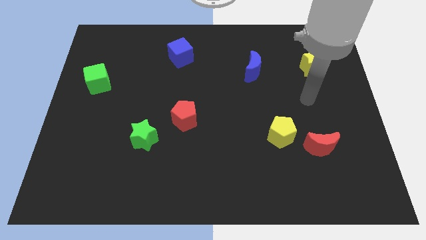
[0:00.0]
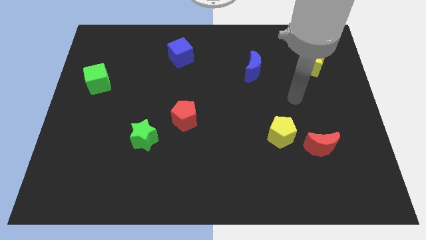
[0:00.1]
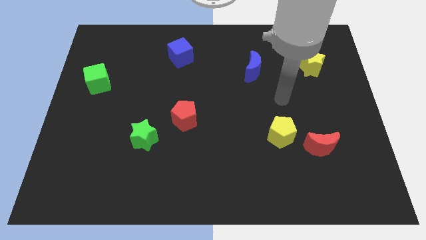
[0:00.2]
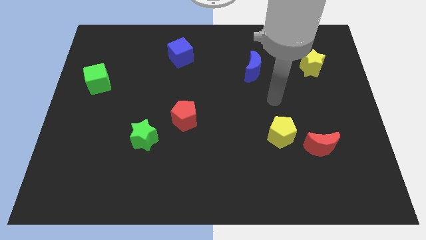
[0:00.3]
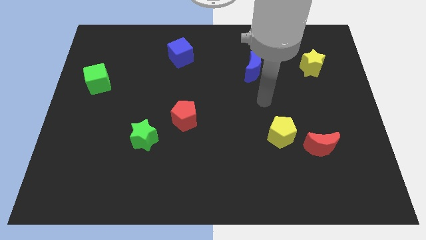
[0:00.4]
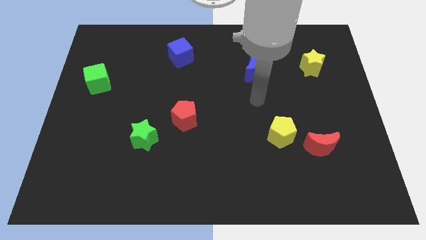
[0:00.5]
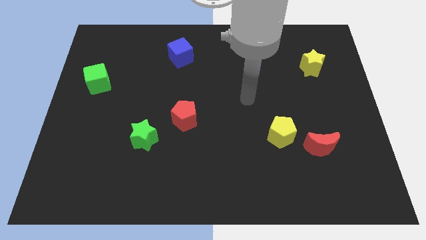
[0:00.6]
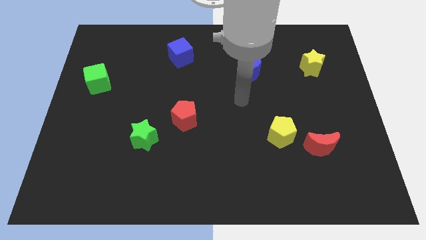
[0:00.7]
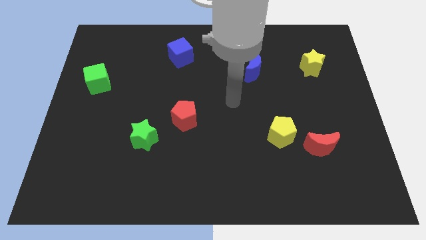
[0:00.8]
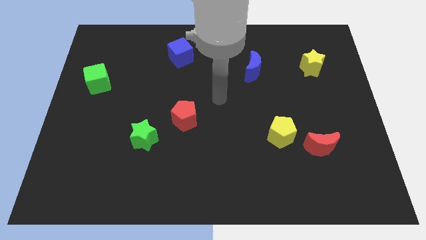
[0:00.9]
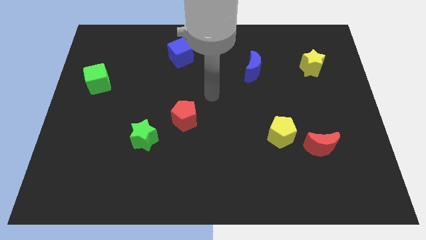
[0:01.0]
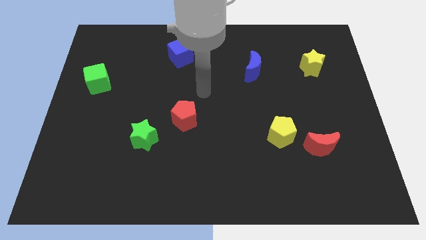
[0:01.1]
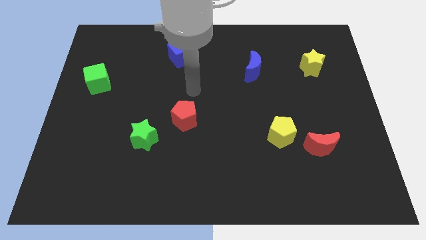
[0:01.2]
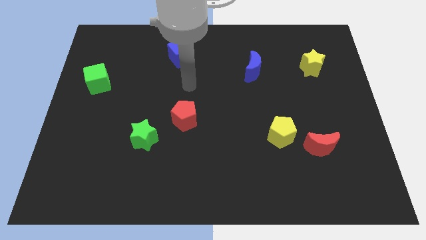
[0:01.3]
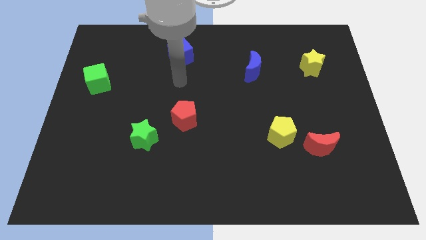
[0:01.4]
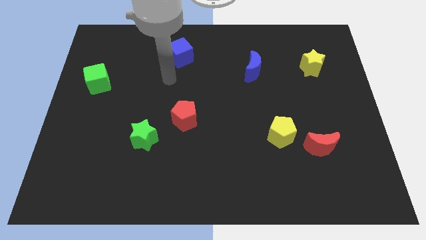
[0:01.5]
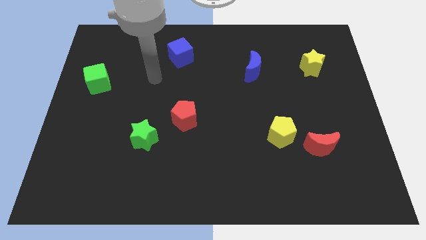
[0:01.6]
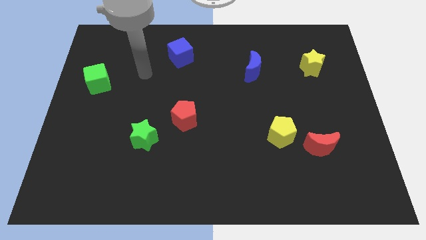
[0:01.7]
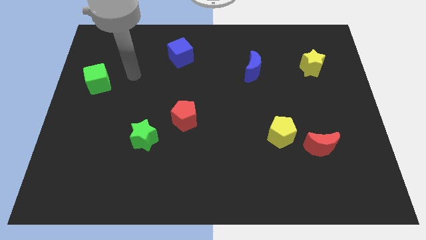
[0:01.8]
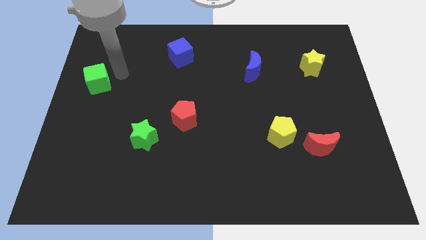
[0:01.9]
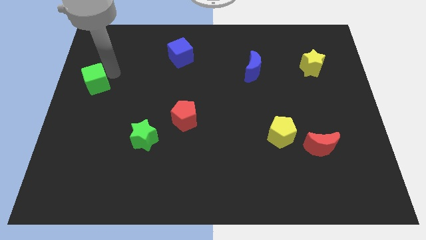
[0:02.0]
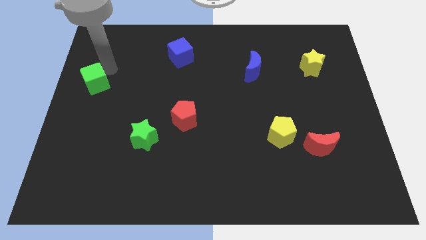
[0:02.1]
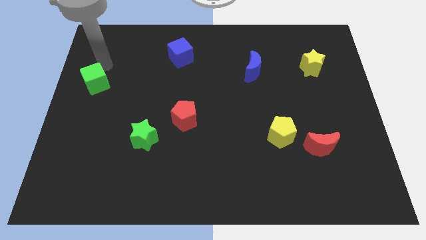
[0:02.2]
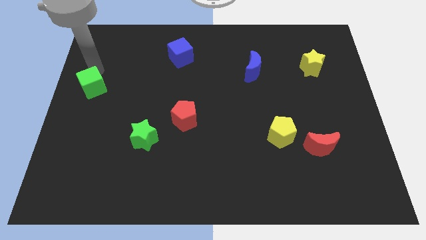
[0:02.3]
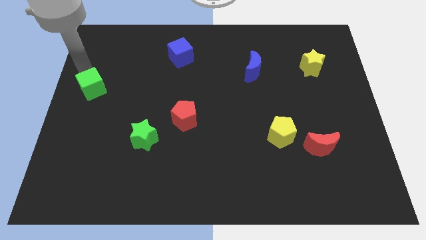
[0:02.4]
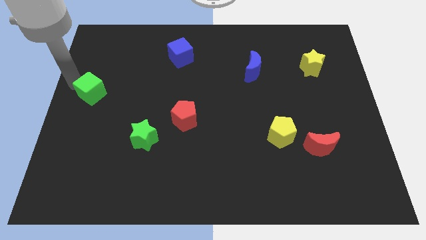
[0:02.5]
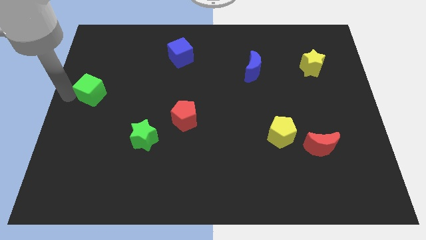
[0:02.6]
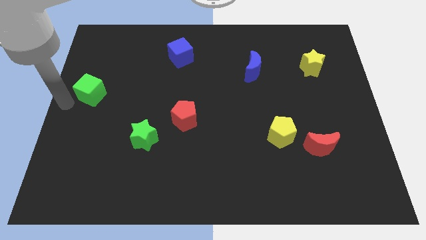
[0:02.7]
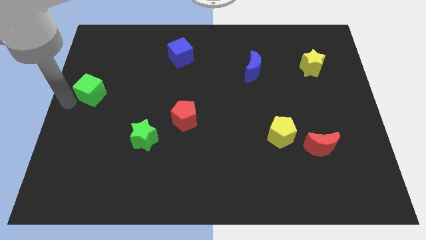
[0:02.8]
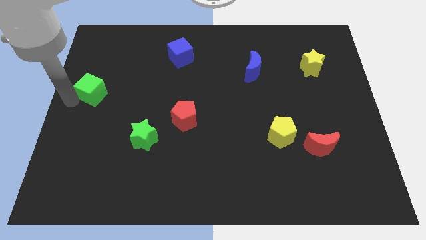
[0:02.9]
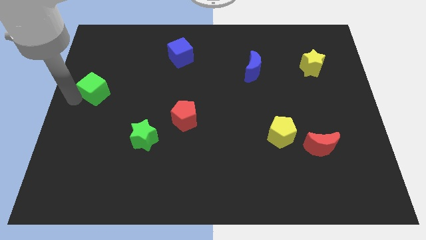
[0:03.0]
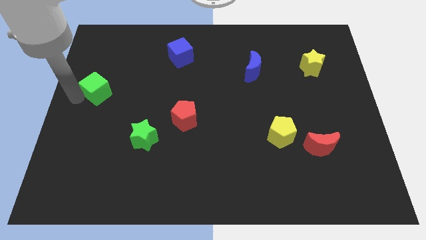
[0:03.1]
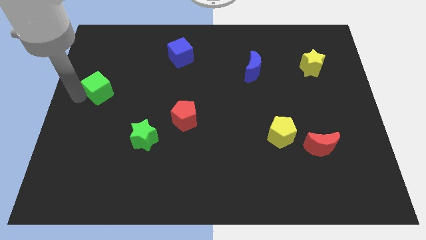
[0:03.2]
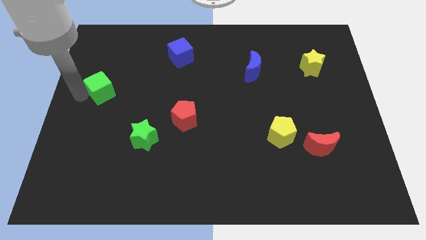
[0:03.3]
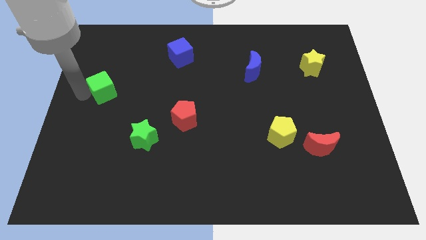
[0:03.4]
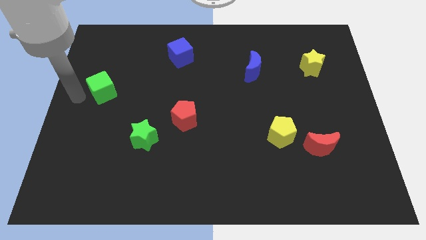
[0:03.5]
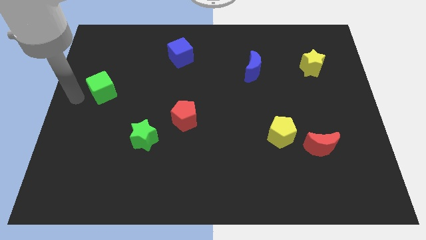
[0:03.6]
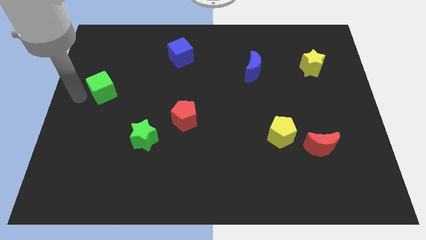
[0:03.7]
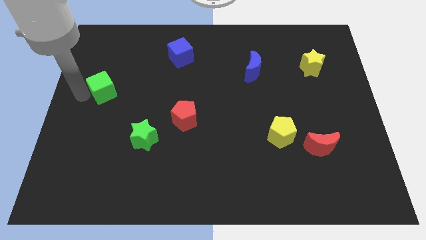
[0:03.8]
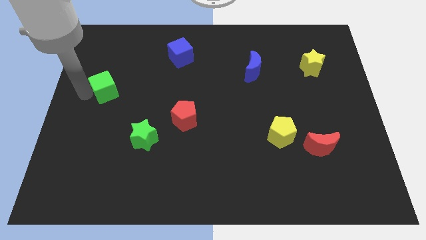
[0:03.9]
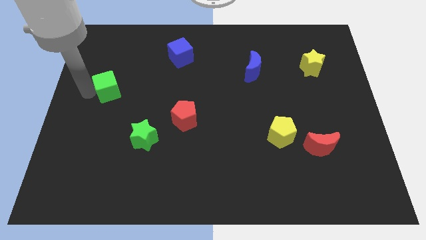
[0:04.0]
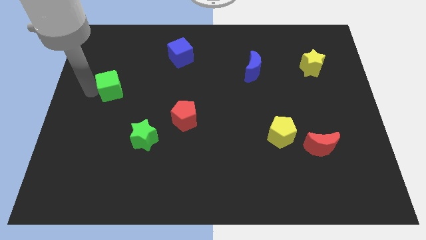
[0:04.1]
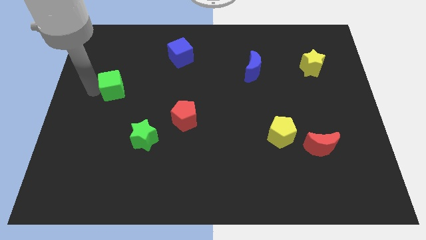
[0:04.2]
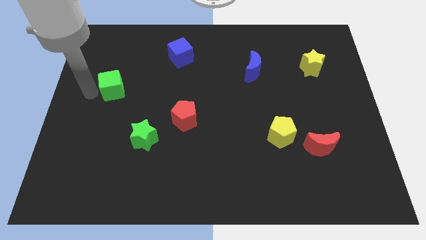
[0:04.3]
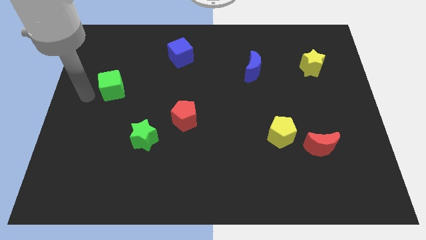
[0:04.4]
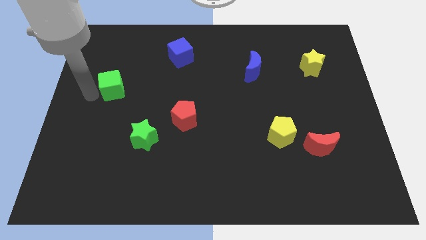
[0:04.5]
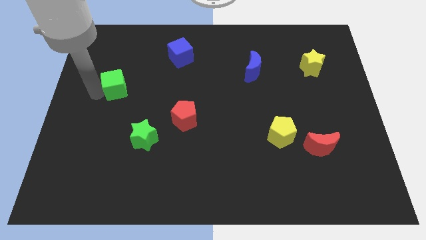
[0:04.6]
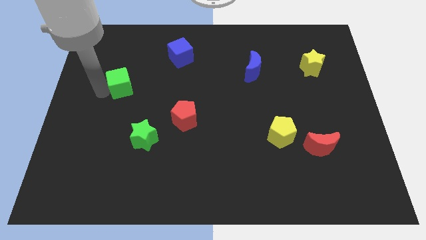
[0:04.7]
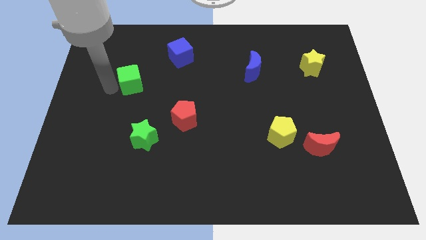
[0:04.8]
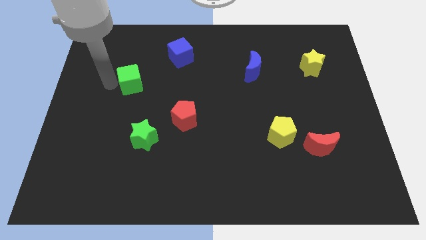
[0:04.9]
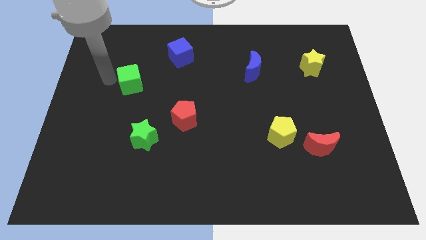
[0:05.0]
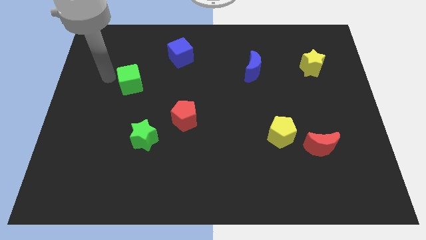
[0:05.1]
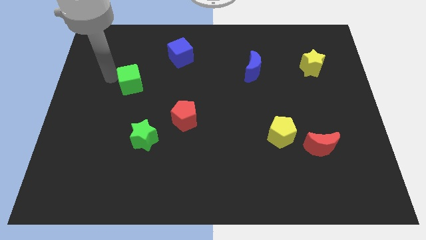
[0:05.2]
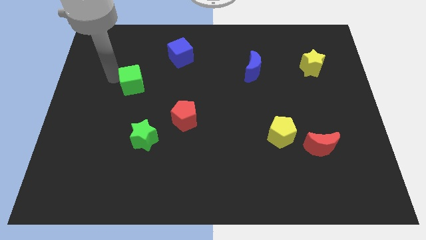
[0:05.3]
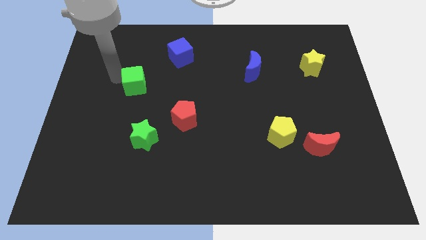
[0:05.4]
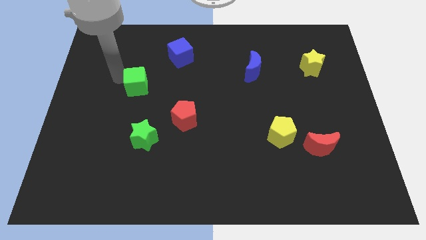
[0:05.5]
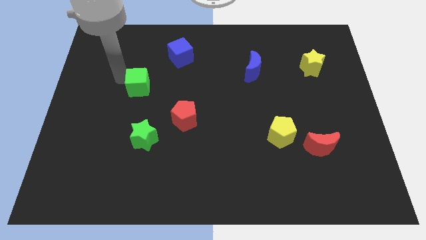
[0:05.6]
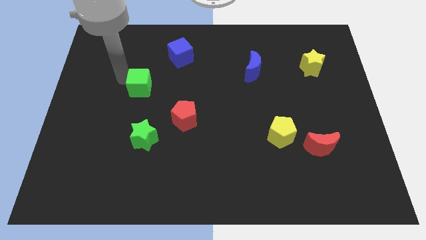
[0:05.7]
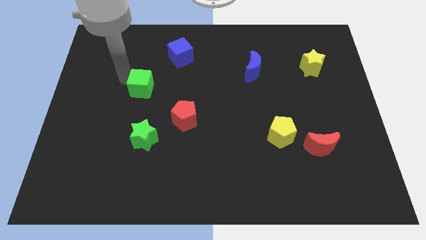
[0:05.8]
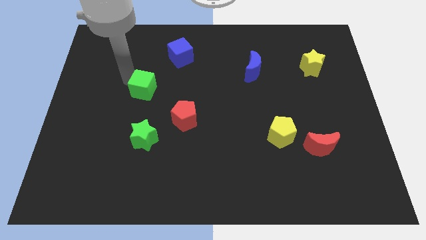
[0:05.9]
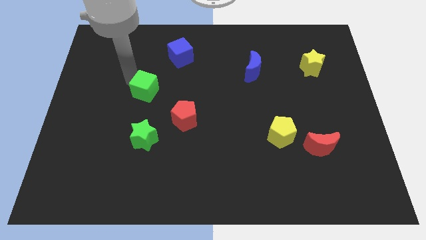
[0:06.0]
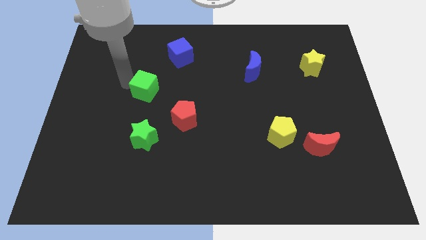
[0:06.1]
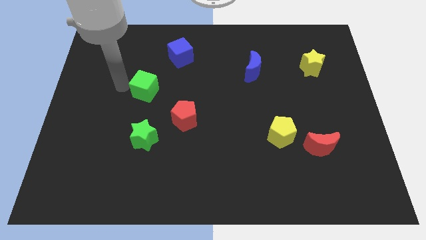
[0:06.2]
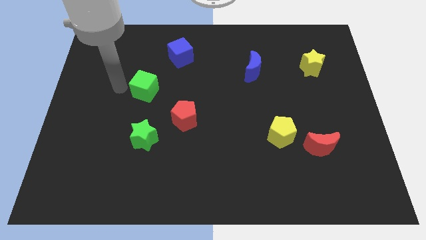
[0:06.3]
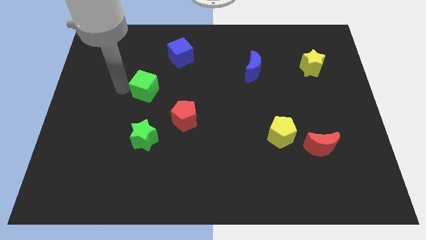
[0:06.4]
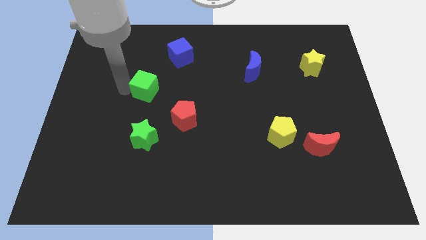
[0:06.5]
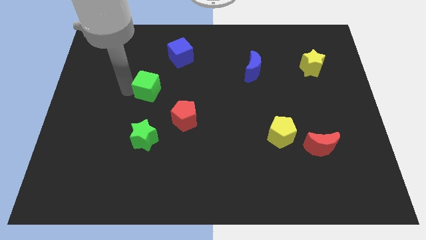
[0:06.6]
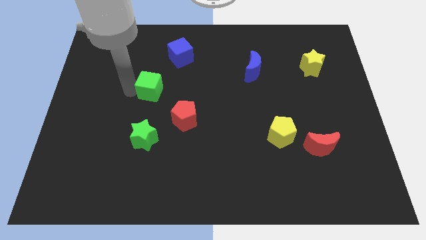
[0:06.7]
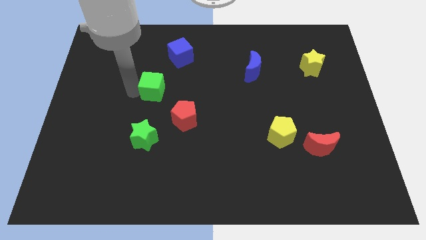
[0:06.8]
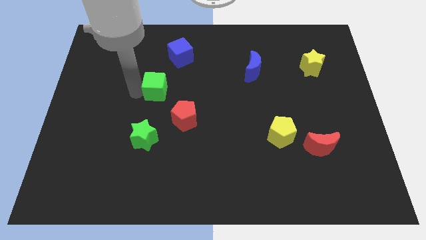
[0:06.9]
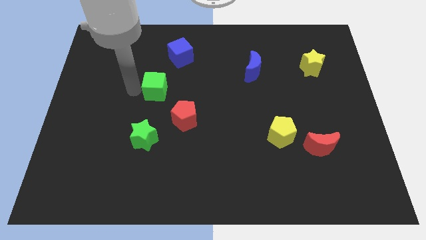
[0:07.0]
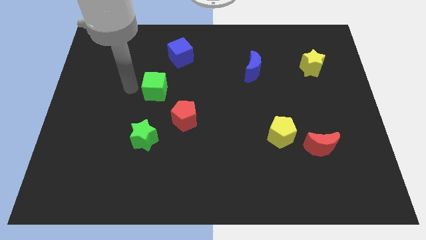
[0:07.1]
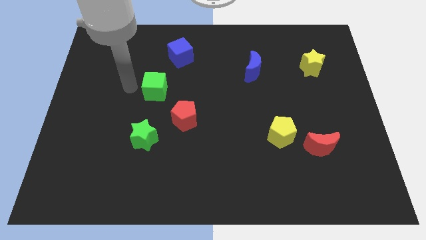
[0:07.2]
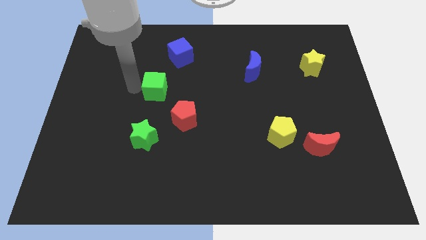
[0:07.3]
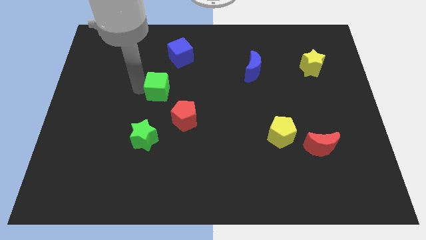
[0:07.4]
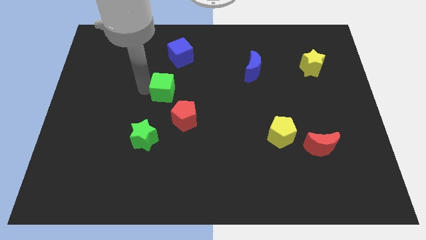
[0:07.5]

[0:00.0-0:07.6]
put the green cube to the center of the board
